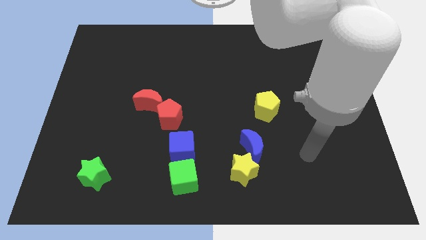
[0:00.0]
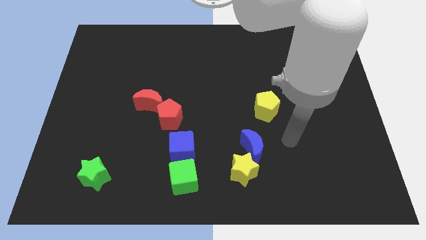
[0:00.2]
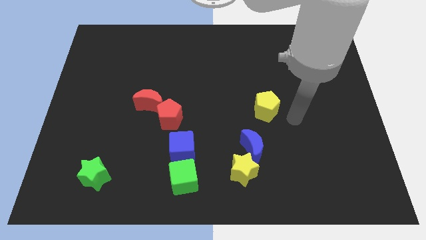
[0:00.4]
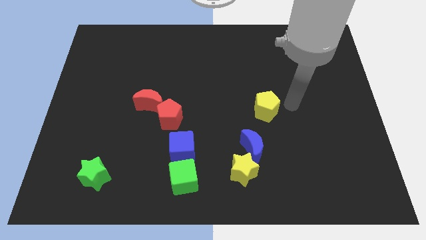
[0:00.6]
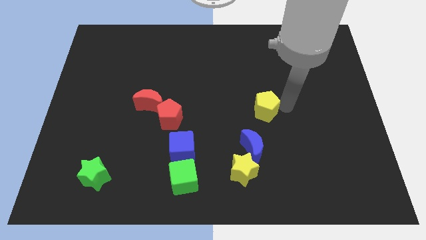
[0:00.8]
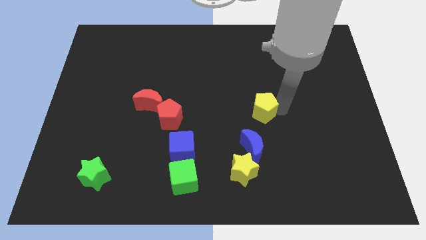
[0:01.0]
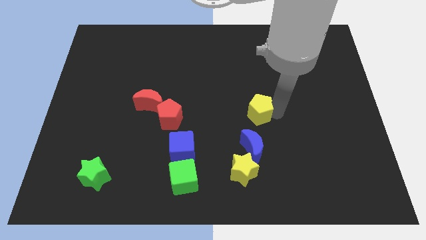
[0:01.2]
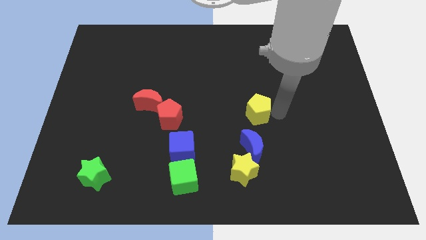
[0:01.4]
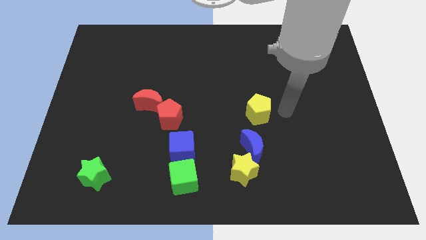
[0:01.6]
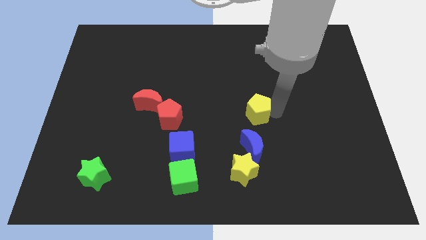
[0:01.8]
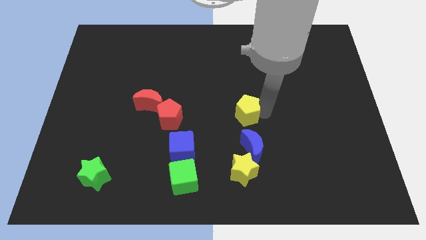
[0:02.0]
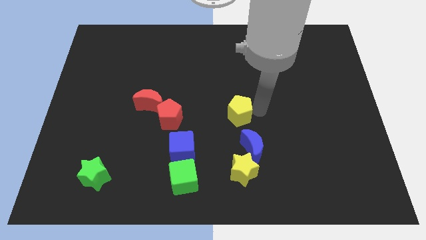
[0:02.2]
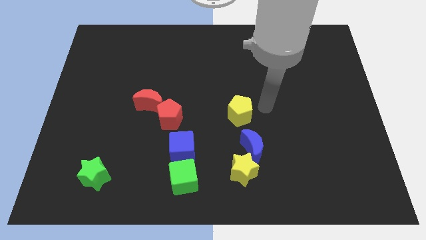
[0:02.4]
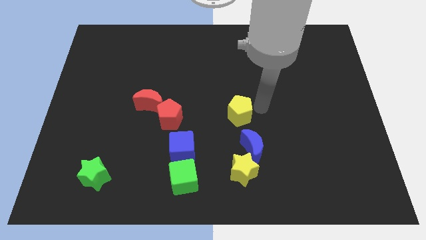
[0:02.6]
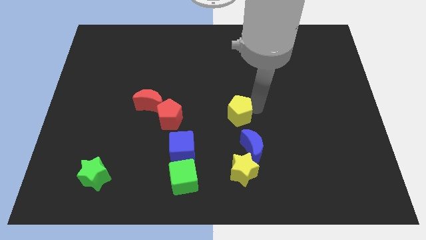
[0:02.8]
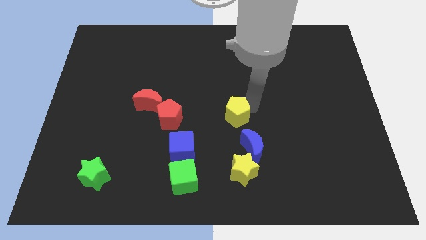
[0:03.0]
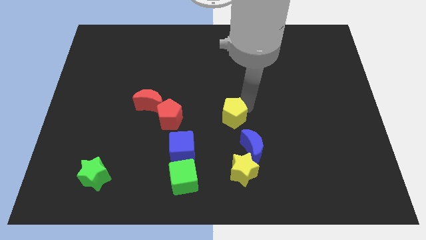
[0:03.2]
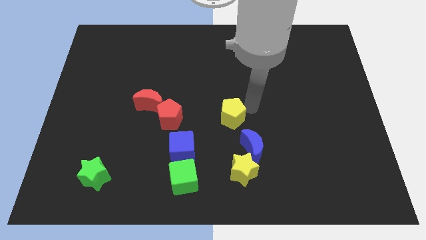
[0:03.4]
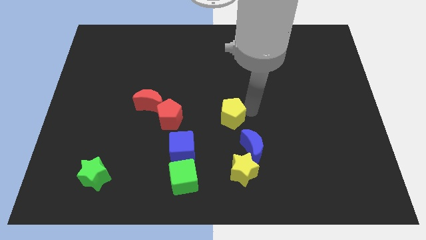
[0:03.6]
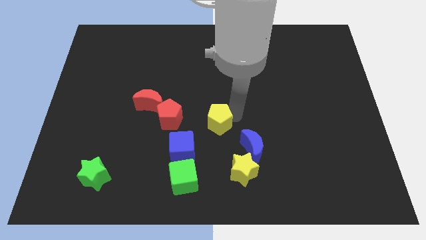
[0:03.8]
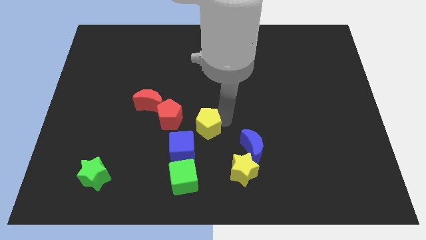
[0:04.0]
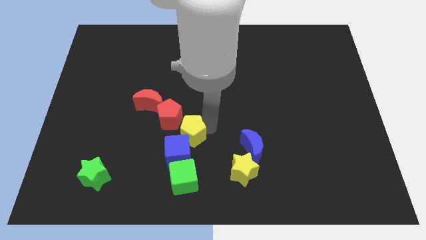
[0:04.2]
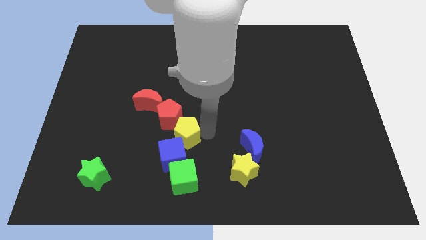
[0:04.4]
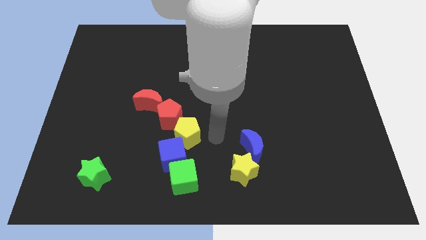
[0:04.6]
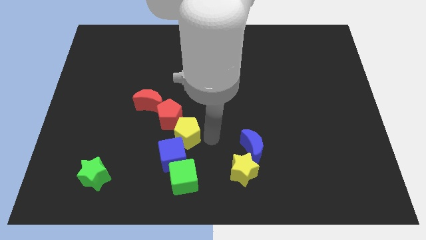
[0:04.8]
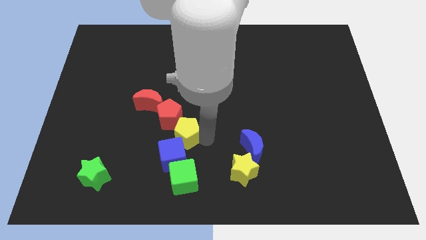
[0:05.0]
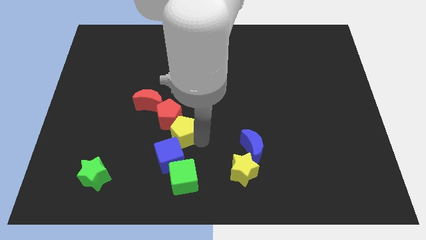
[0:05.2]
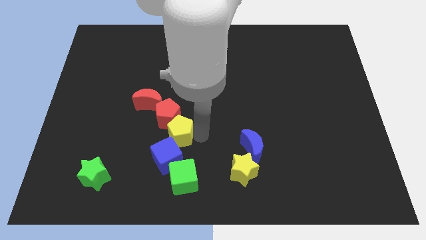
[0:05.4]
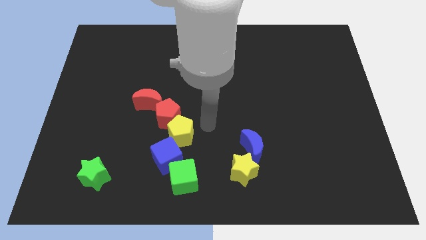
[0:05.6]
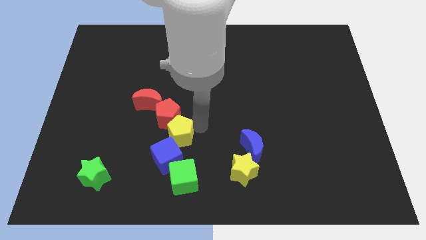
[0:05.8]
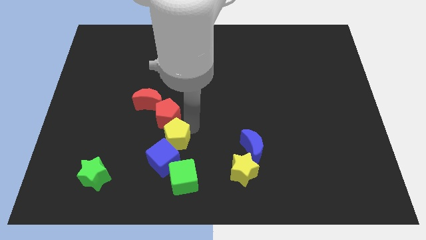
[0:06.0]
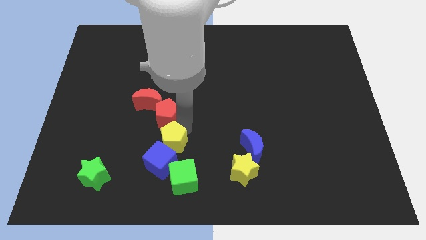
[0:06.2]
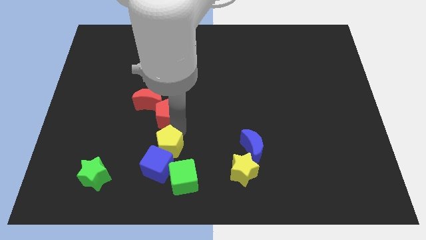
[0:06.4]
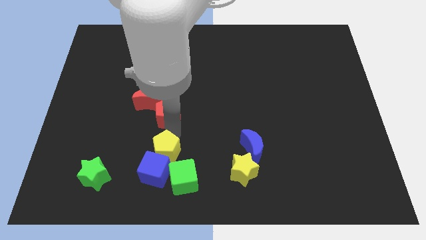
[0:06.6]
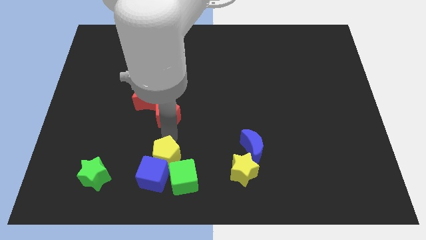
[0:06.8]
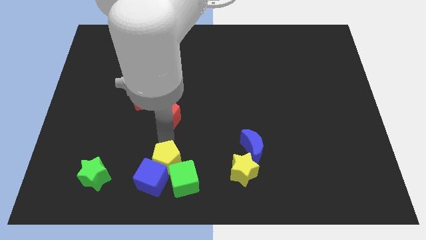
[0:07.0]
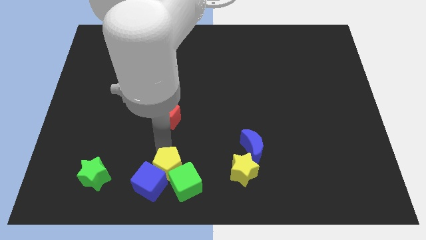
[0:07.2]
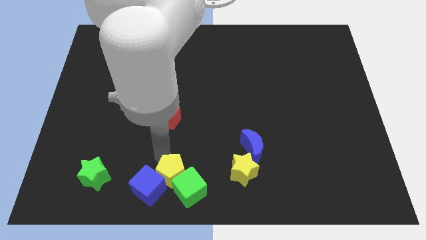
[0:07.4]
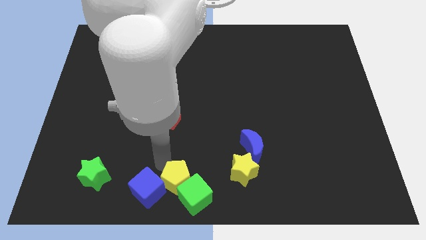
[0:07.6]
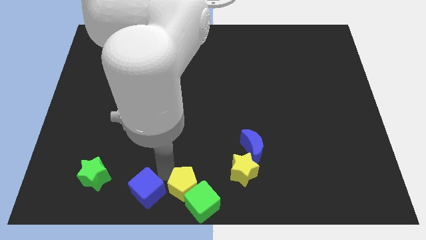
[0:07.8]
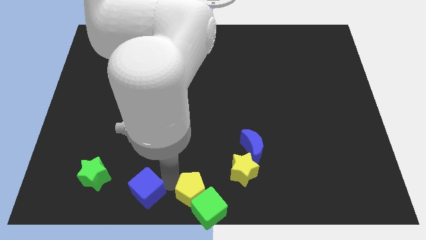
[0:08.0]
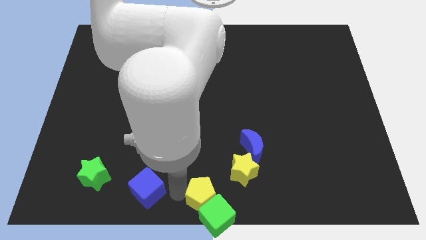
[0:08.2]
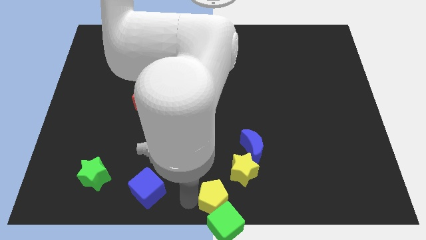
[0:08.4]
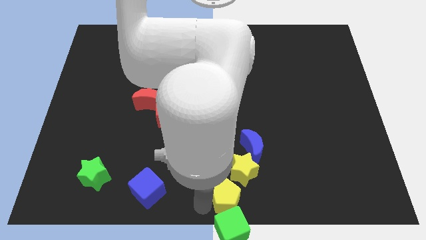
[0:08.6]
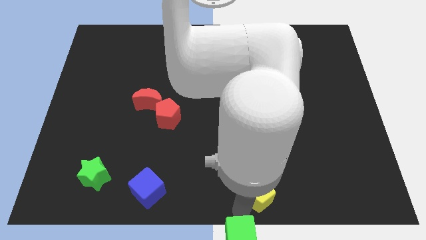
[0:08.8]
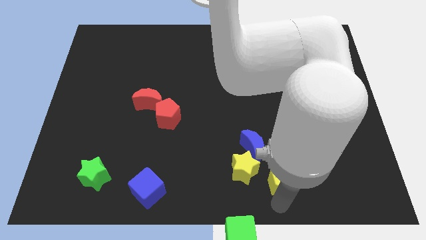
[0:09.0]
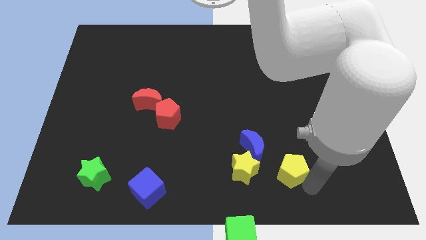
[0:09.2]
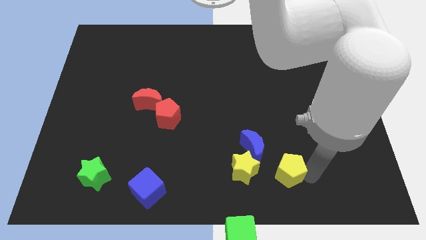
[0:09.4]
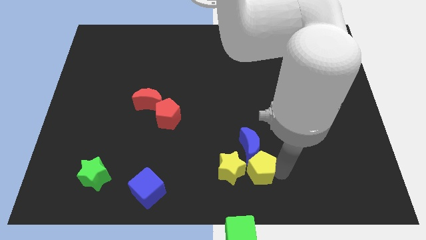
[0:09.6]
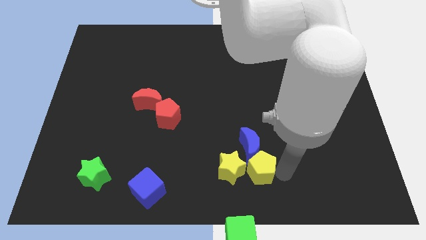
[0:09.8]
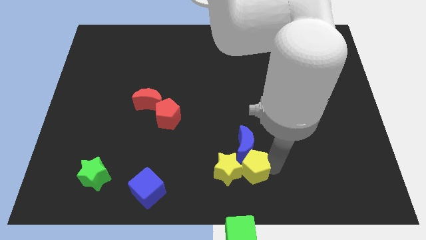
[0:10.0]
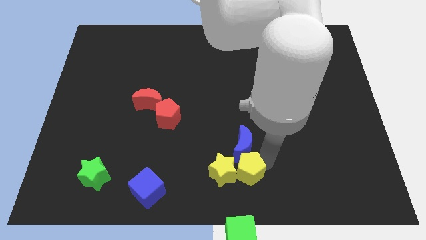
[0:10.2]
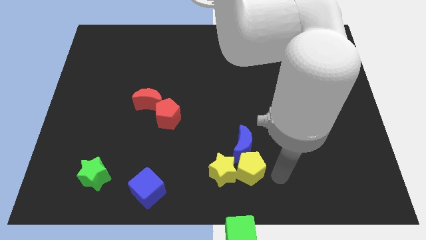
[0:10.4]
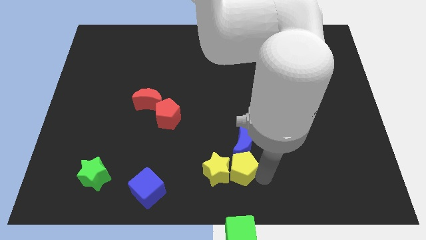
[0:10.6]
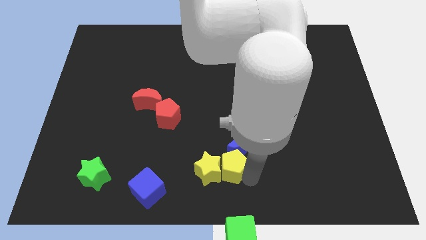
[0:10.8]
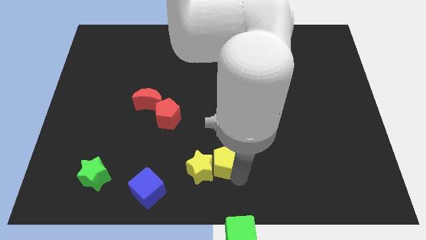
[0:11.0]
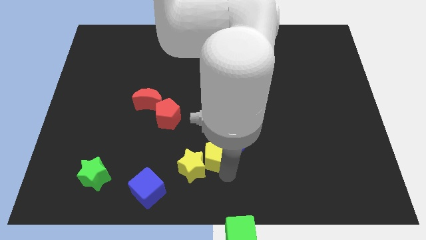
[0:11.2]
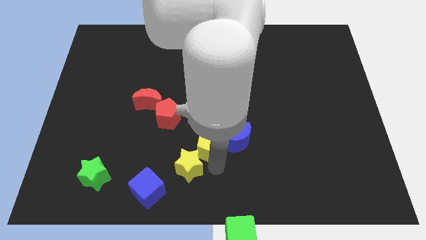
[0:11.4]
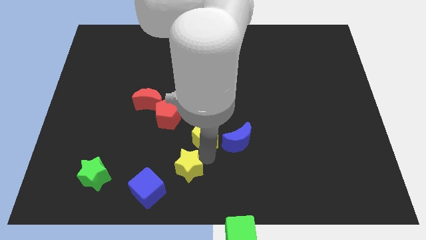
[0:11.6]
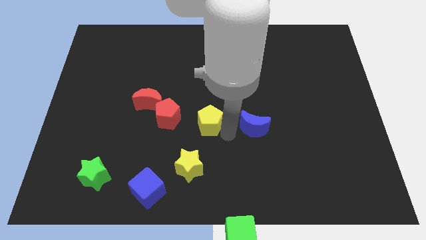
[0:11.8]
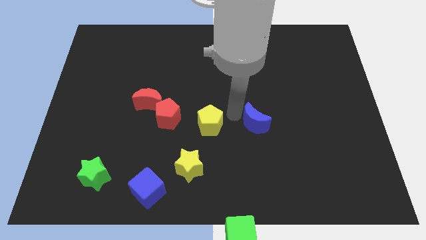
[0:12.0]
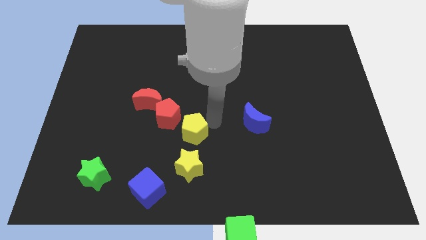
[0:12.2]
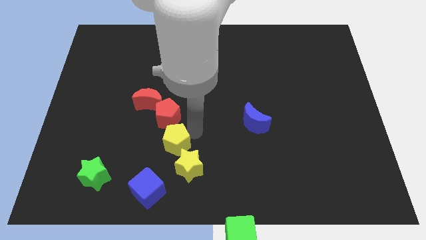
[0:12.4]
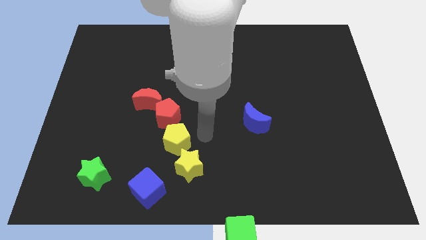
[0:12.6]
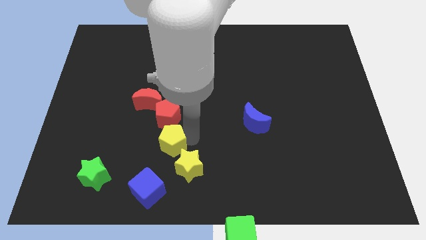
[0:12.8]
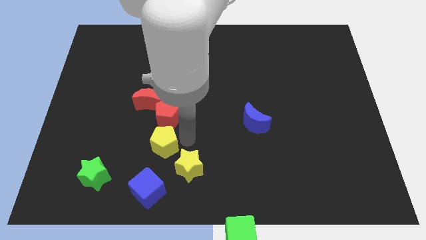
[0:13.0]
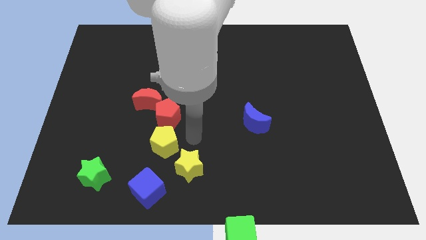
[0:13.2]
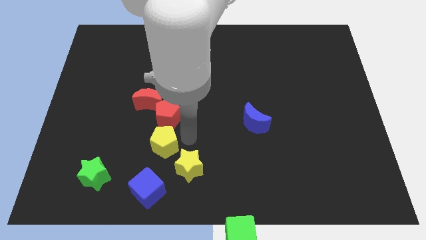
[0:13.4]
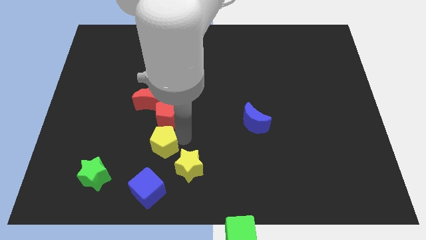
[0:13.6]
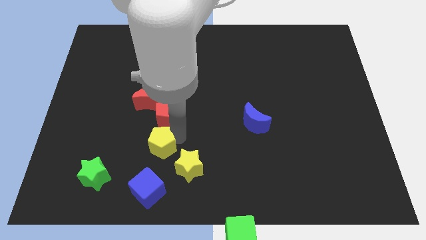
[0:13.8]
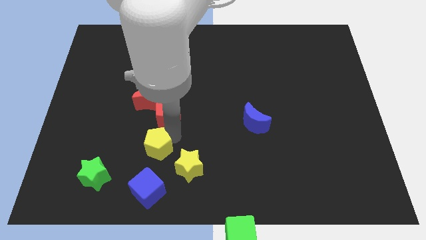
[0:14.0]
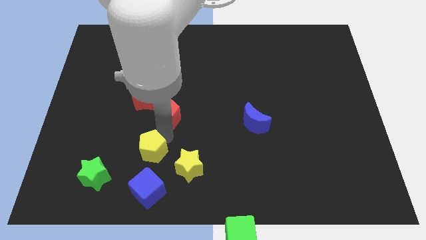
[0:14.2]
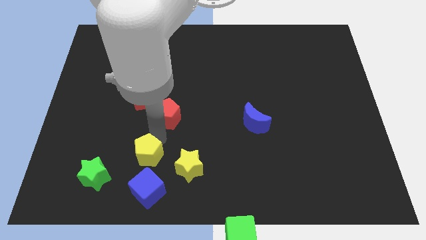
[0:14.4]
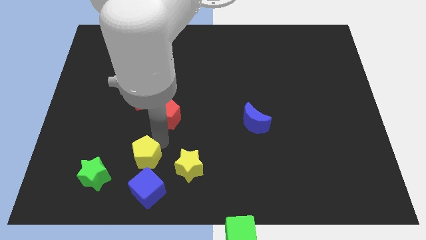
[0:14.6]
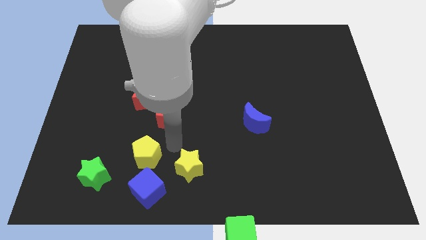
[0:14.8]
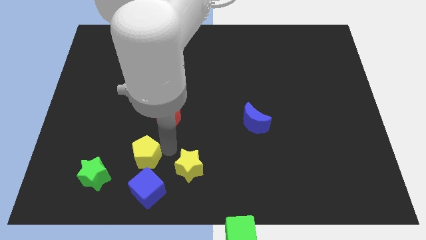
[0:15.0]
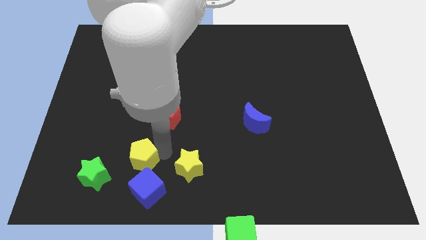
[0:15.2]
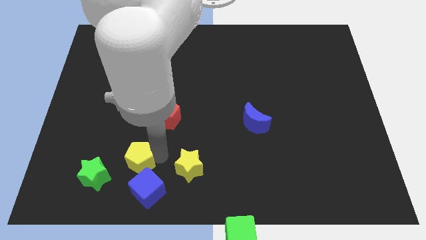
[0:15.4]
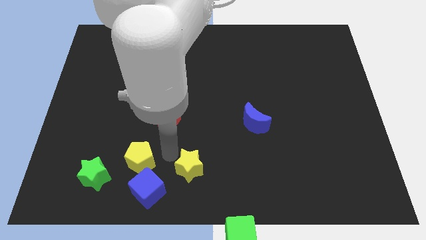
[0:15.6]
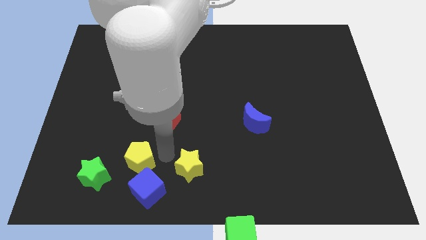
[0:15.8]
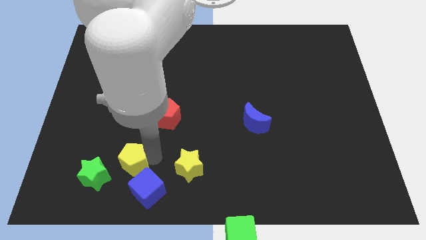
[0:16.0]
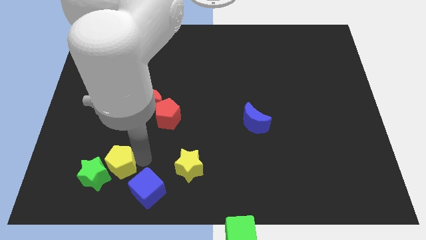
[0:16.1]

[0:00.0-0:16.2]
slide the yellow pentagon towards the green star
